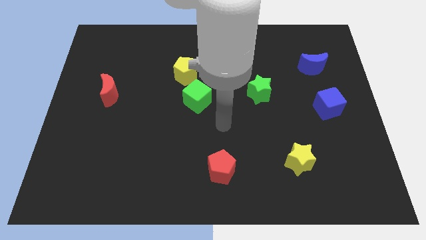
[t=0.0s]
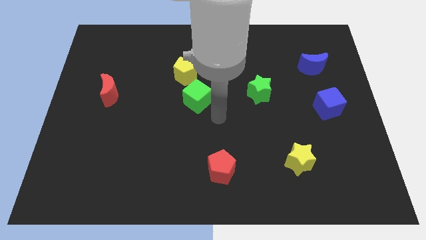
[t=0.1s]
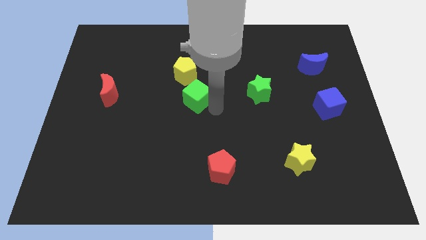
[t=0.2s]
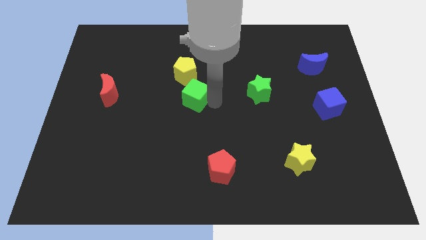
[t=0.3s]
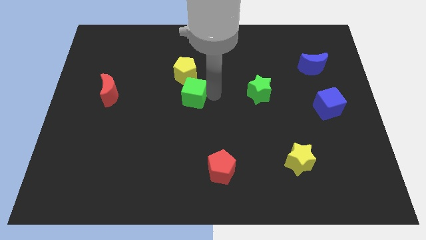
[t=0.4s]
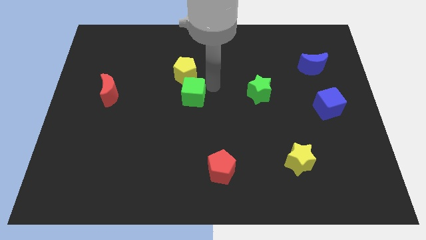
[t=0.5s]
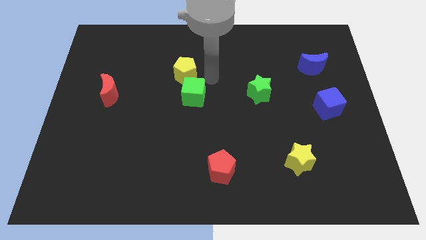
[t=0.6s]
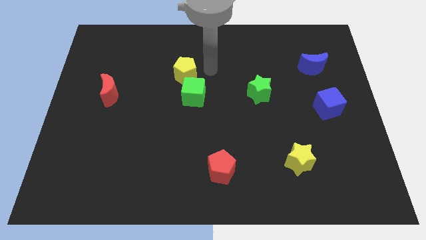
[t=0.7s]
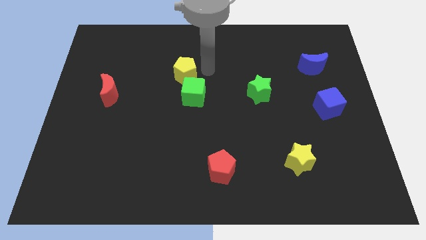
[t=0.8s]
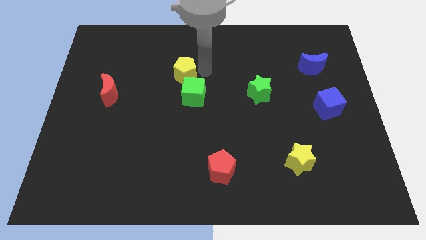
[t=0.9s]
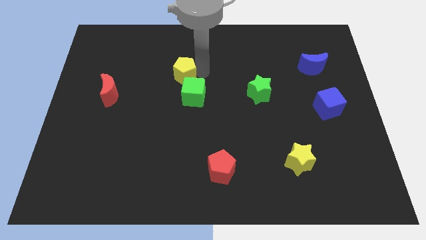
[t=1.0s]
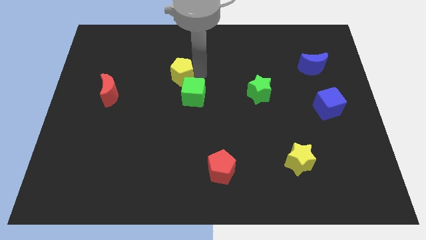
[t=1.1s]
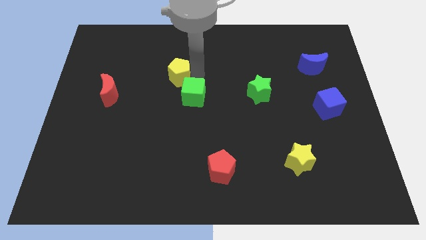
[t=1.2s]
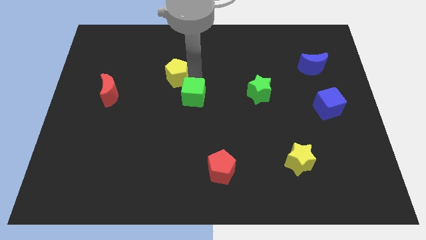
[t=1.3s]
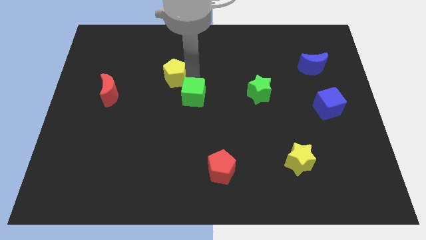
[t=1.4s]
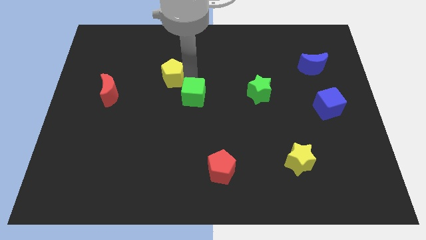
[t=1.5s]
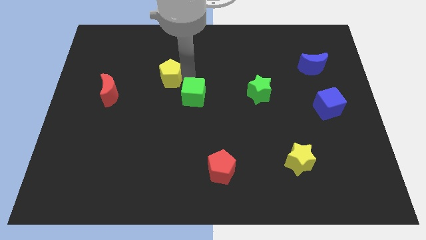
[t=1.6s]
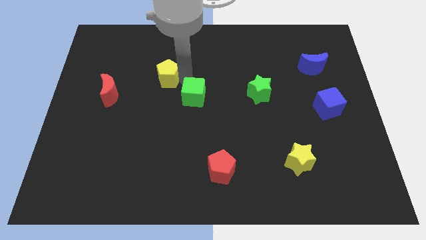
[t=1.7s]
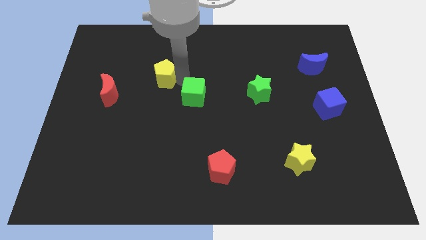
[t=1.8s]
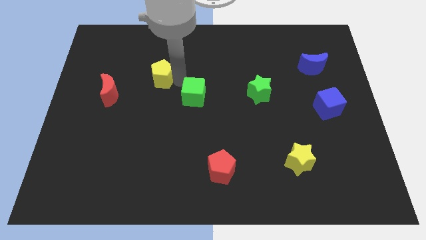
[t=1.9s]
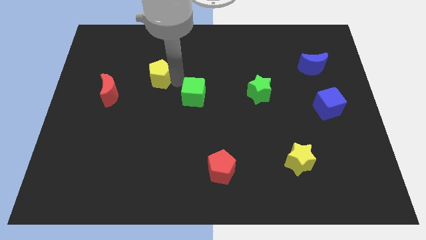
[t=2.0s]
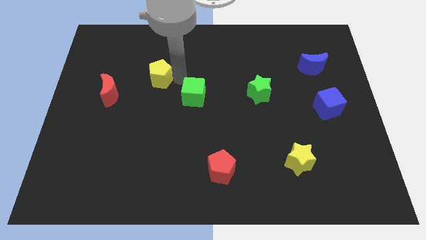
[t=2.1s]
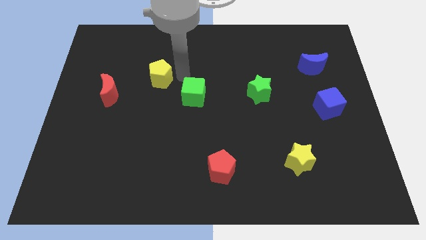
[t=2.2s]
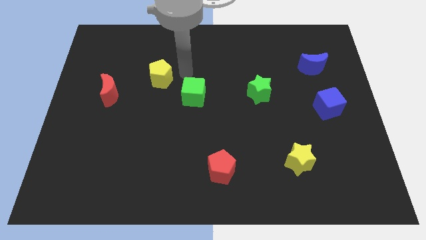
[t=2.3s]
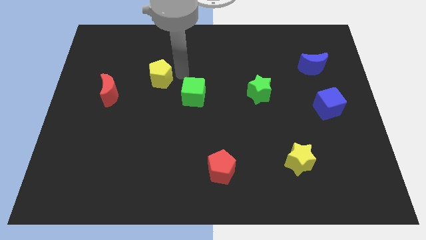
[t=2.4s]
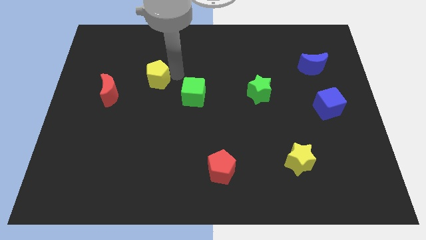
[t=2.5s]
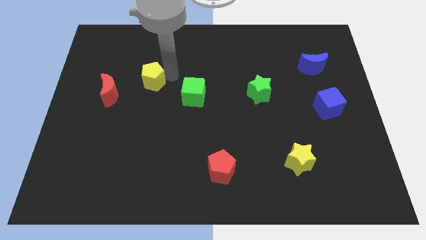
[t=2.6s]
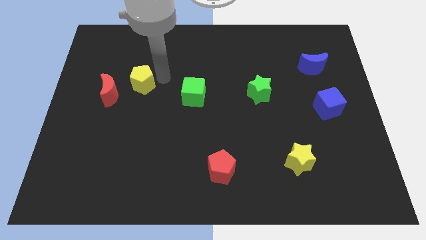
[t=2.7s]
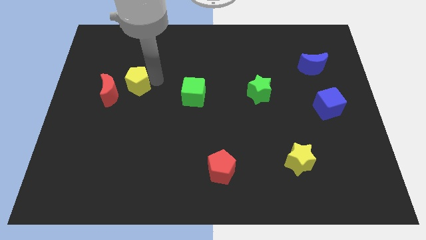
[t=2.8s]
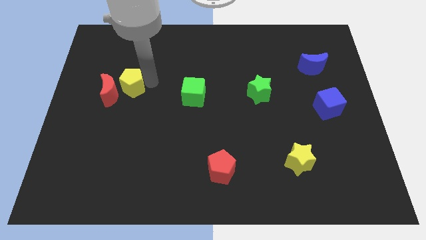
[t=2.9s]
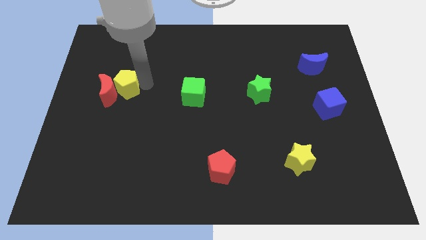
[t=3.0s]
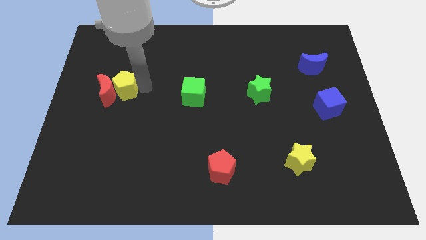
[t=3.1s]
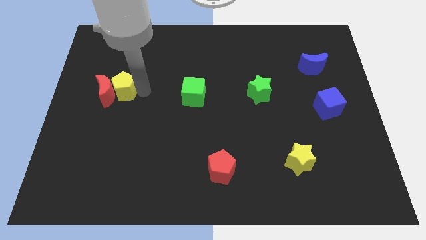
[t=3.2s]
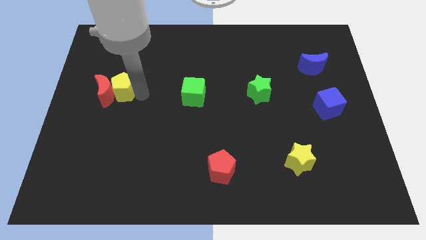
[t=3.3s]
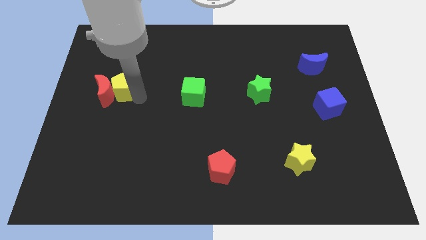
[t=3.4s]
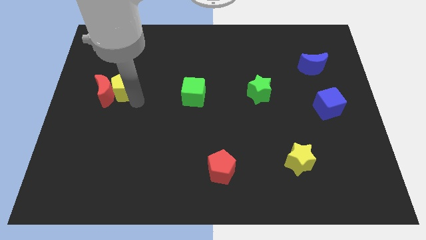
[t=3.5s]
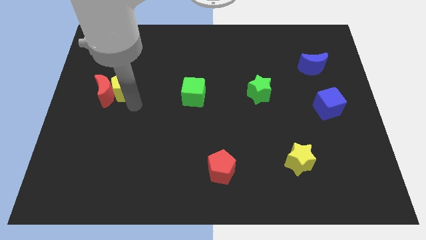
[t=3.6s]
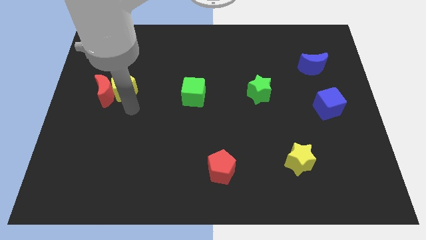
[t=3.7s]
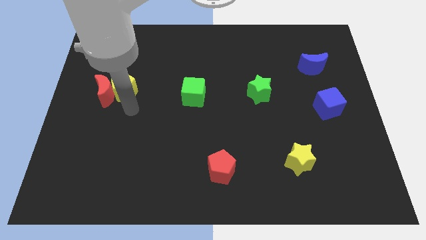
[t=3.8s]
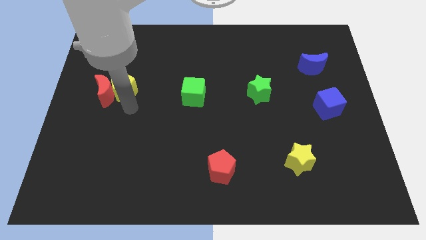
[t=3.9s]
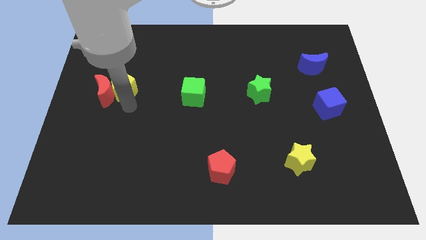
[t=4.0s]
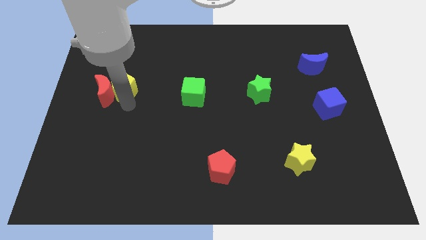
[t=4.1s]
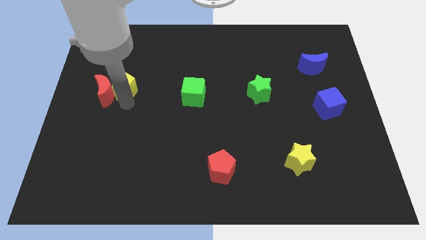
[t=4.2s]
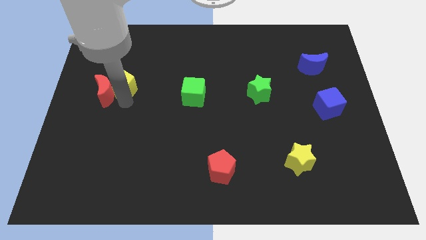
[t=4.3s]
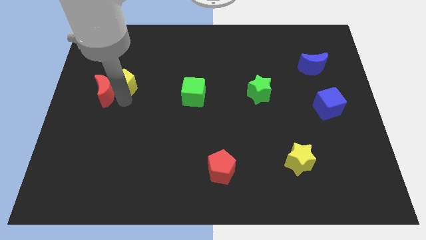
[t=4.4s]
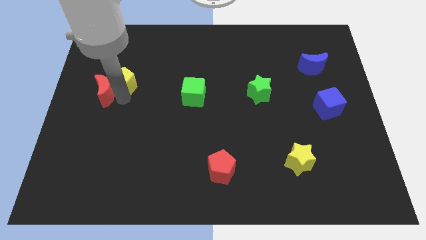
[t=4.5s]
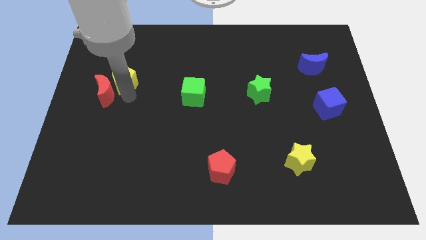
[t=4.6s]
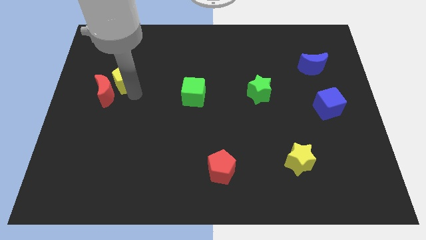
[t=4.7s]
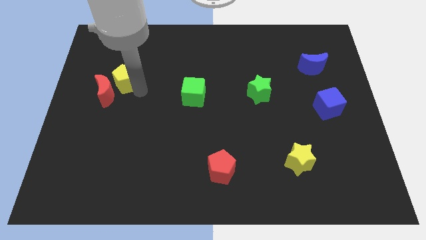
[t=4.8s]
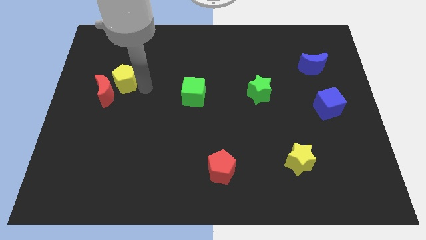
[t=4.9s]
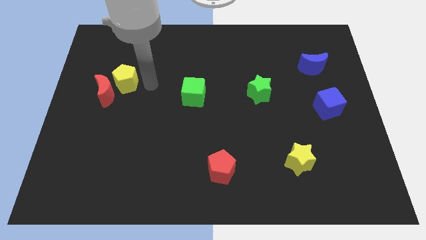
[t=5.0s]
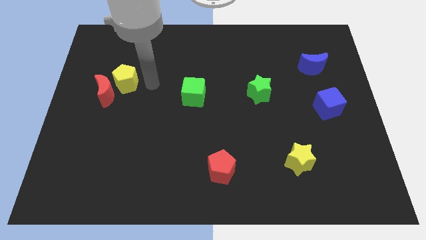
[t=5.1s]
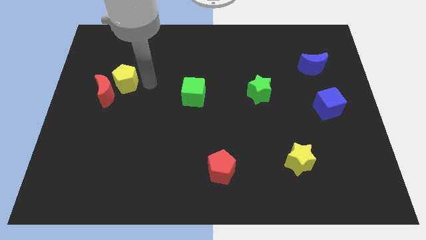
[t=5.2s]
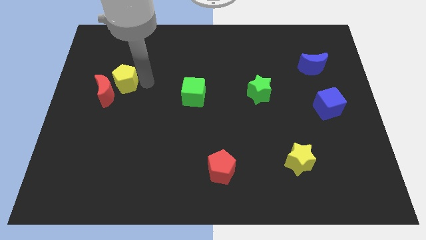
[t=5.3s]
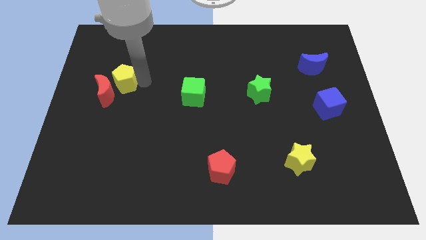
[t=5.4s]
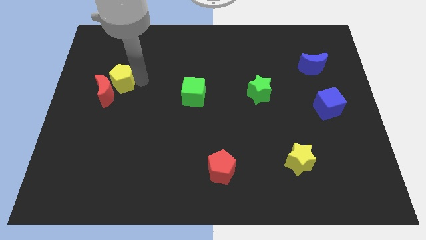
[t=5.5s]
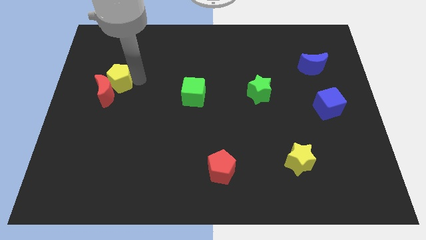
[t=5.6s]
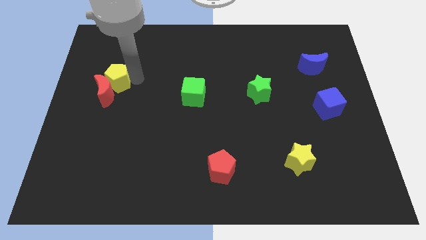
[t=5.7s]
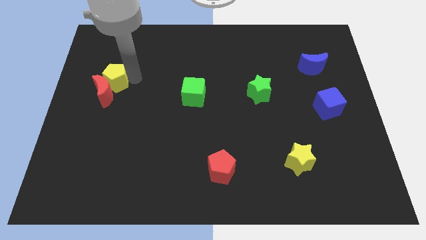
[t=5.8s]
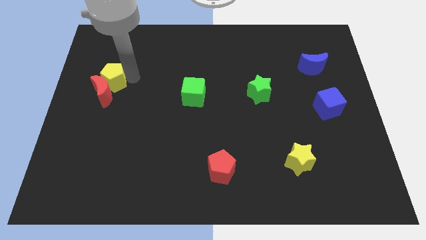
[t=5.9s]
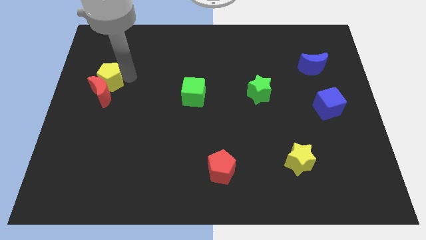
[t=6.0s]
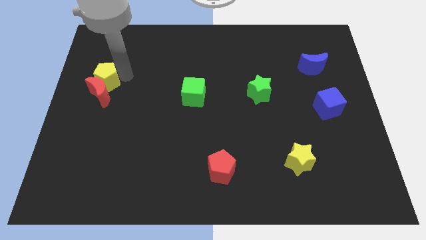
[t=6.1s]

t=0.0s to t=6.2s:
move the yellow pentagon to the left side of the board

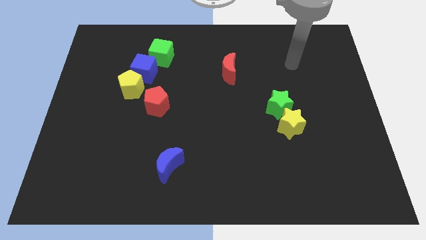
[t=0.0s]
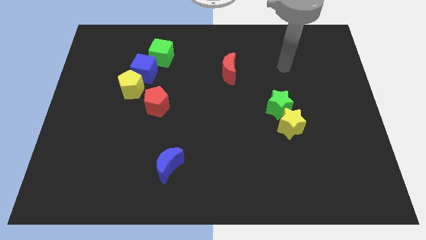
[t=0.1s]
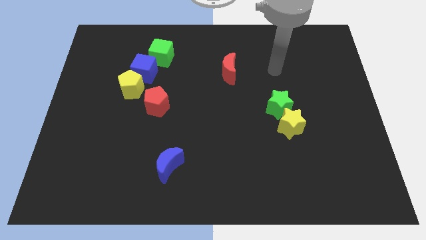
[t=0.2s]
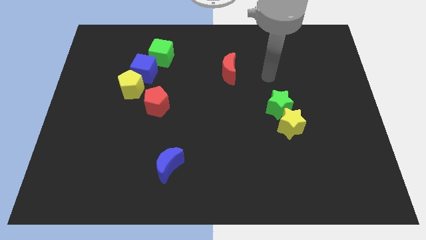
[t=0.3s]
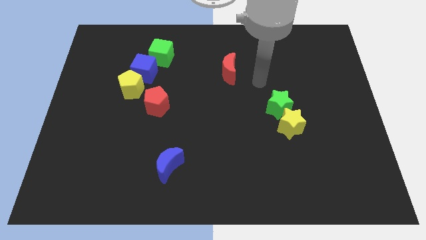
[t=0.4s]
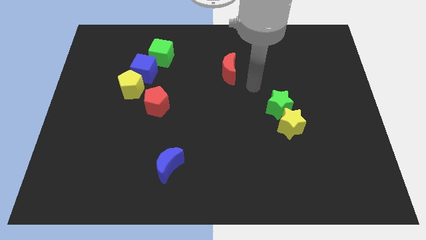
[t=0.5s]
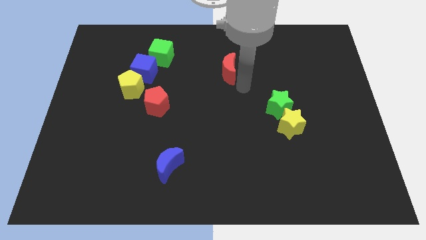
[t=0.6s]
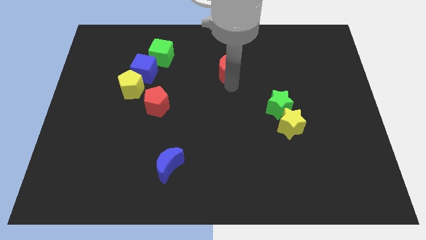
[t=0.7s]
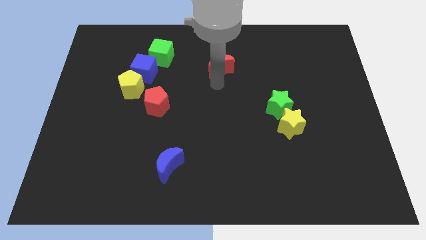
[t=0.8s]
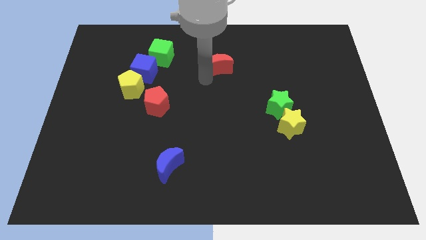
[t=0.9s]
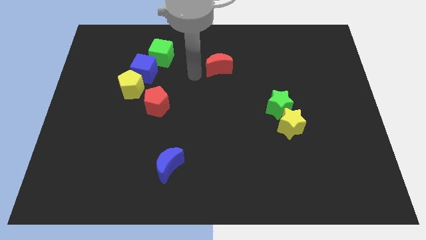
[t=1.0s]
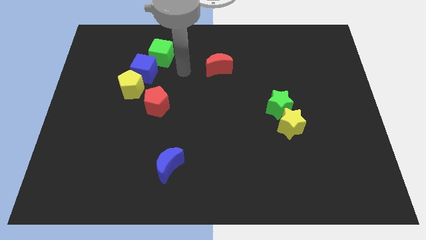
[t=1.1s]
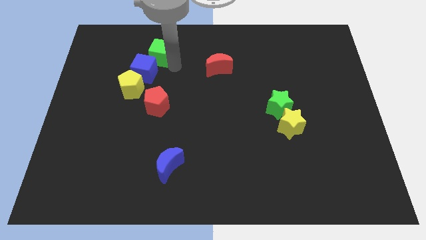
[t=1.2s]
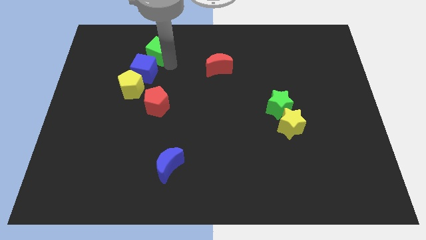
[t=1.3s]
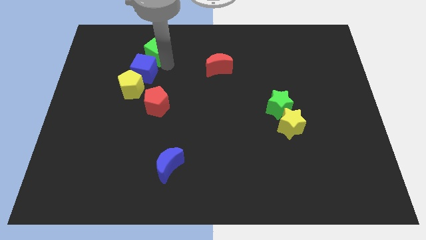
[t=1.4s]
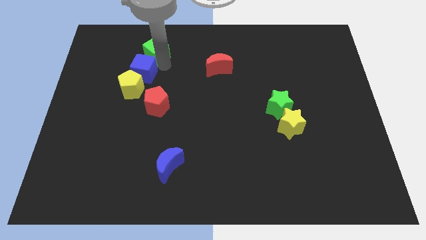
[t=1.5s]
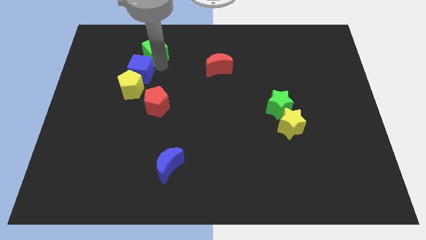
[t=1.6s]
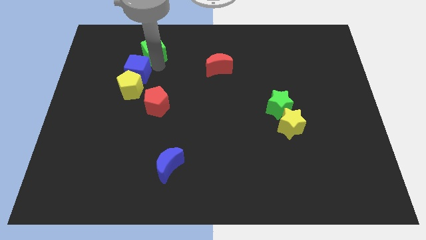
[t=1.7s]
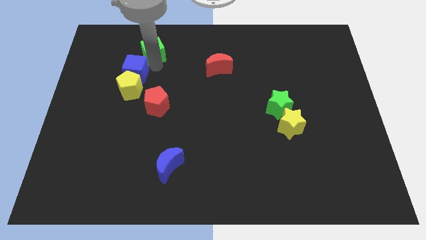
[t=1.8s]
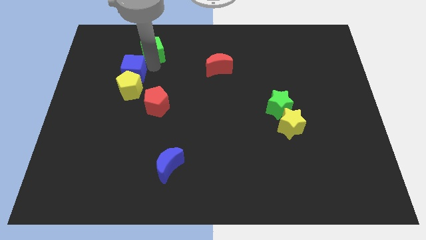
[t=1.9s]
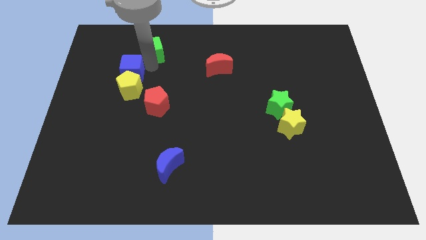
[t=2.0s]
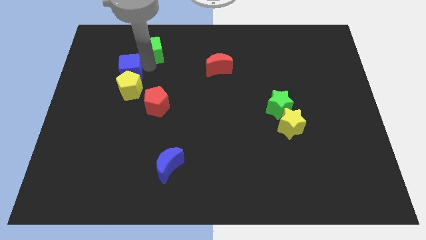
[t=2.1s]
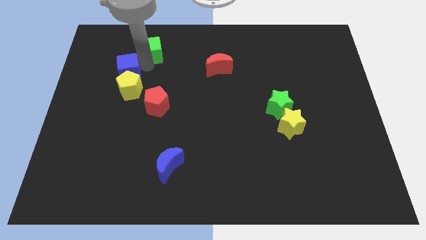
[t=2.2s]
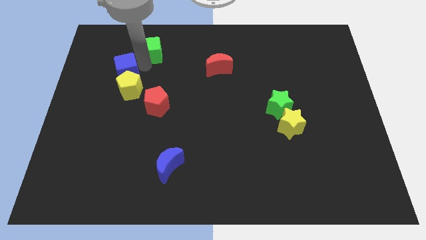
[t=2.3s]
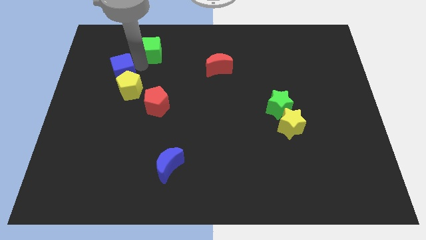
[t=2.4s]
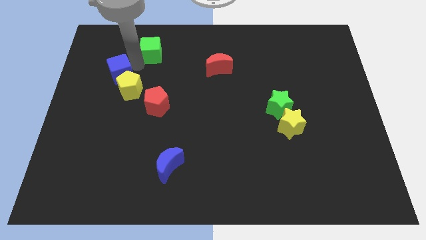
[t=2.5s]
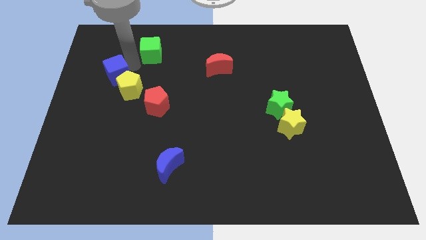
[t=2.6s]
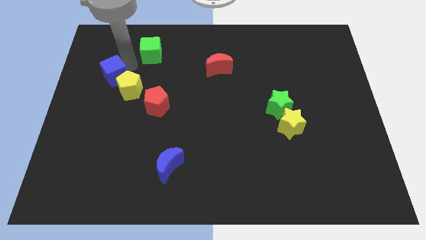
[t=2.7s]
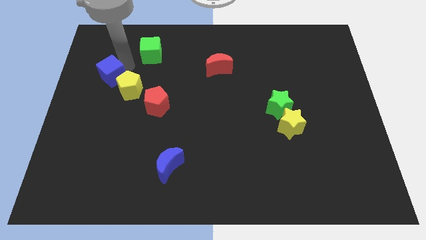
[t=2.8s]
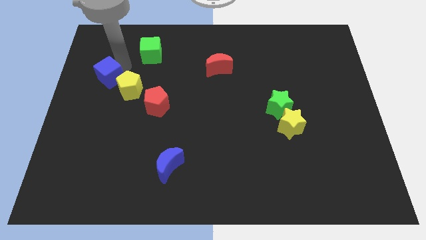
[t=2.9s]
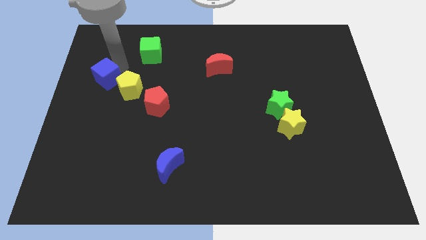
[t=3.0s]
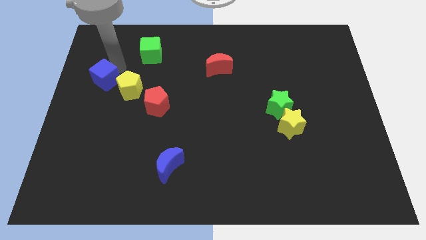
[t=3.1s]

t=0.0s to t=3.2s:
push the blue cube to the center left
